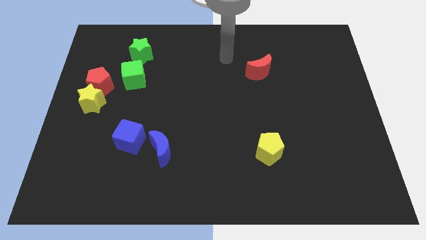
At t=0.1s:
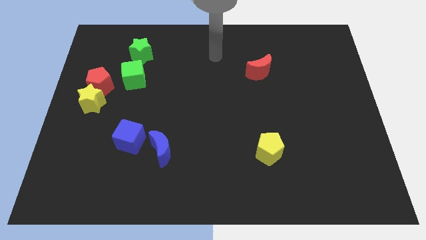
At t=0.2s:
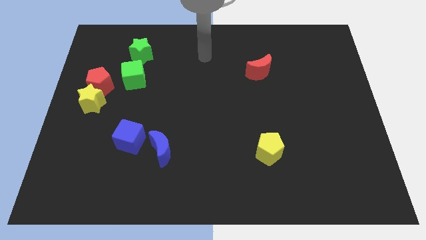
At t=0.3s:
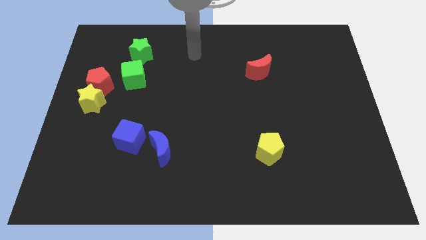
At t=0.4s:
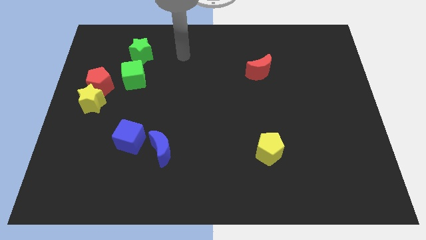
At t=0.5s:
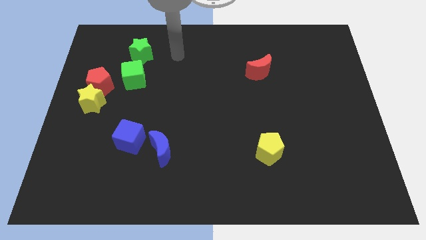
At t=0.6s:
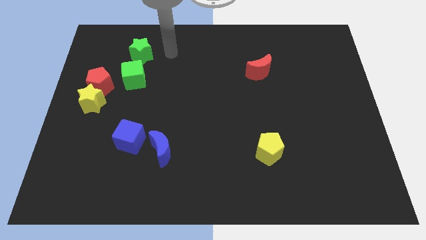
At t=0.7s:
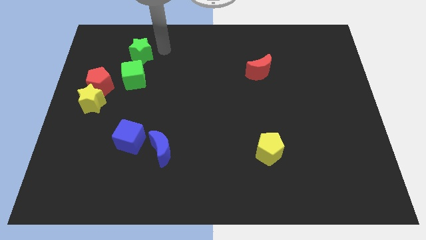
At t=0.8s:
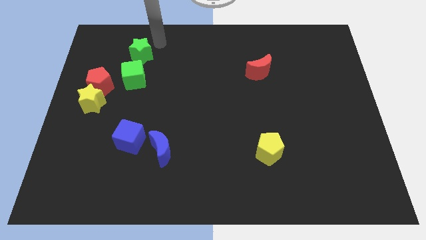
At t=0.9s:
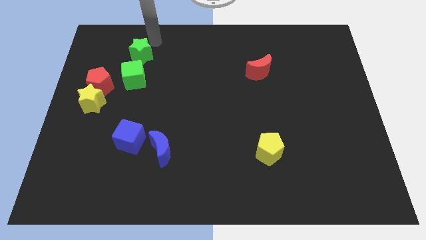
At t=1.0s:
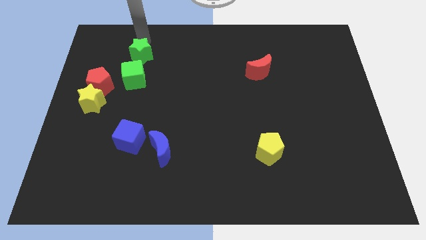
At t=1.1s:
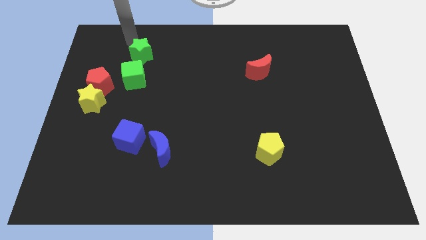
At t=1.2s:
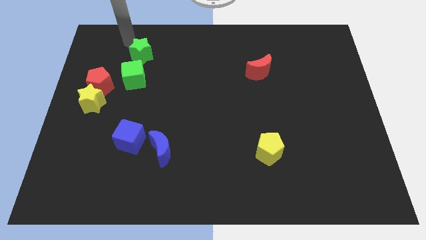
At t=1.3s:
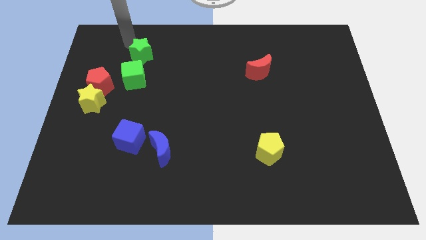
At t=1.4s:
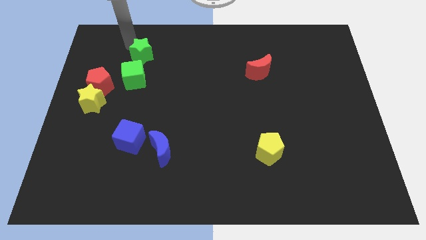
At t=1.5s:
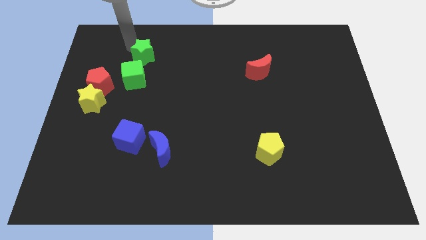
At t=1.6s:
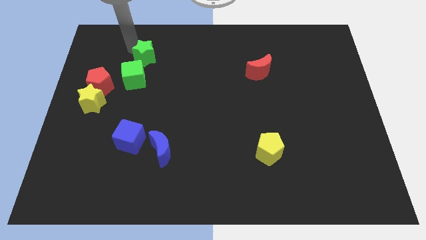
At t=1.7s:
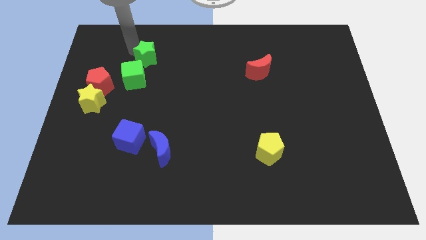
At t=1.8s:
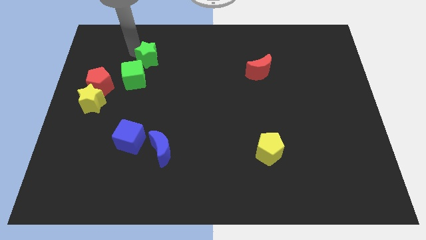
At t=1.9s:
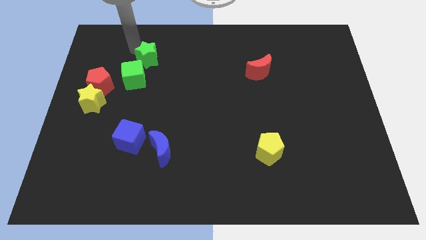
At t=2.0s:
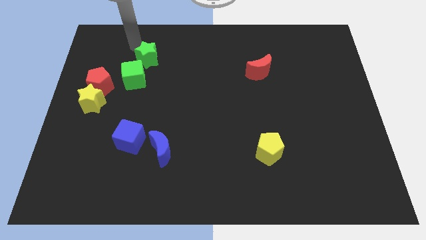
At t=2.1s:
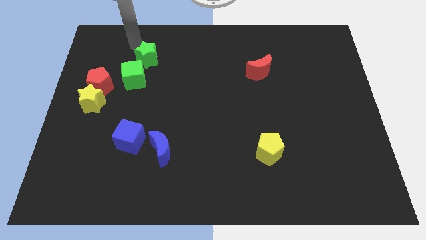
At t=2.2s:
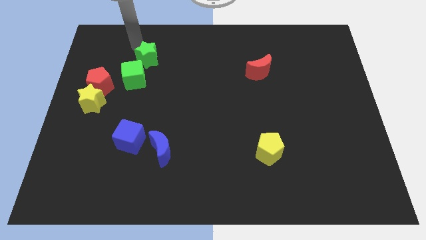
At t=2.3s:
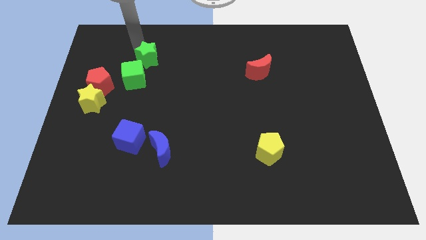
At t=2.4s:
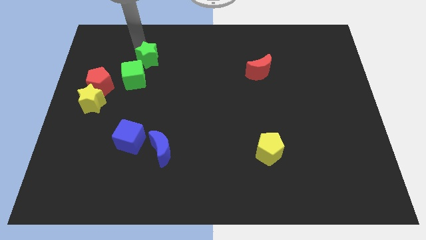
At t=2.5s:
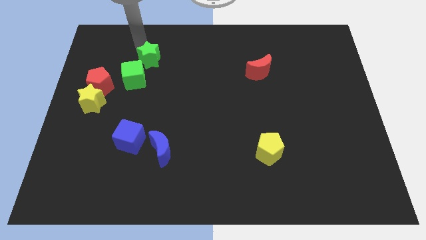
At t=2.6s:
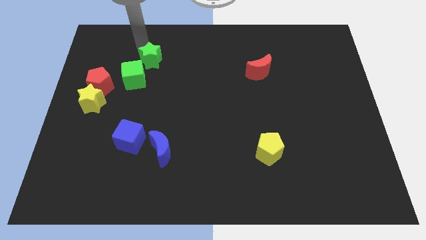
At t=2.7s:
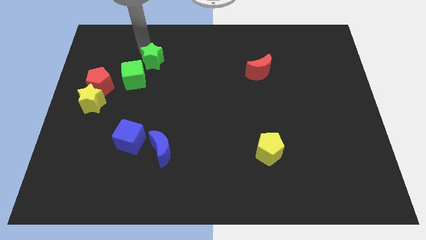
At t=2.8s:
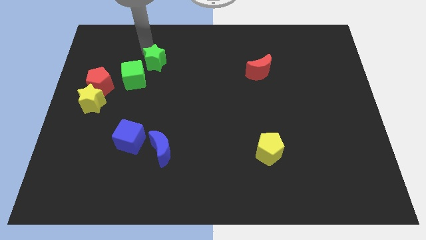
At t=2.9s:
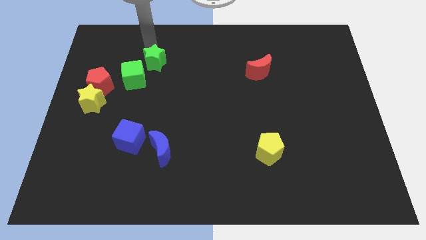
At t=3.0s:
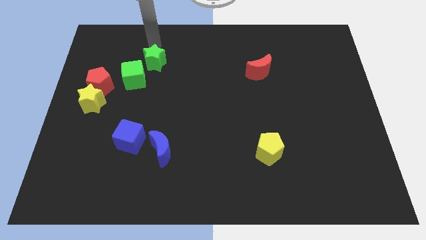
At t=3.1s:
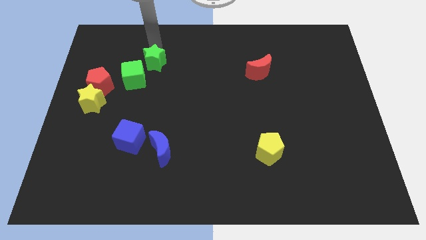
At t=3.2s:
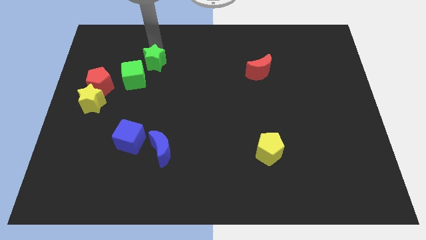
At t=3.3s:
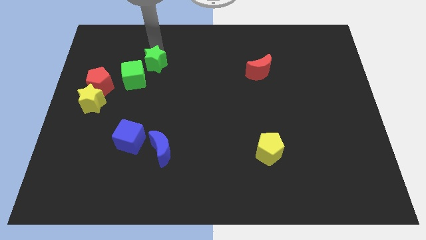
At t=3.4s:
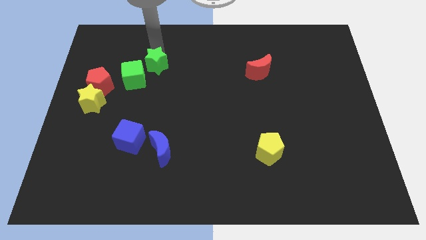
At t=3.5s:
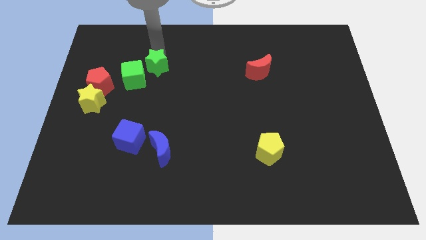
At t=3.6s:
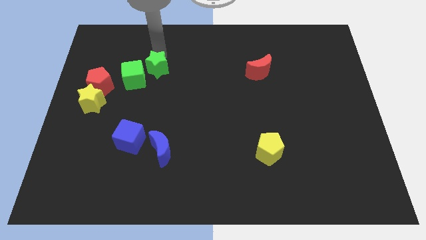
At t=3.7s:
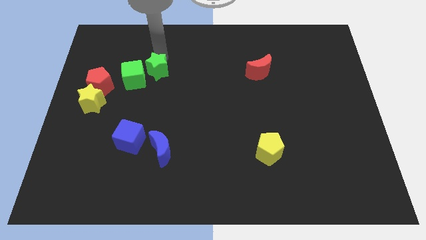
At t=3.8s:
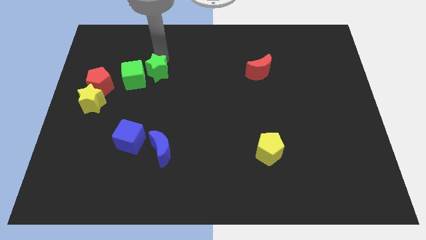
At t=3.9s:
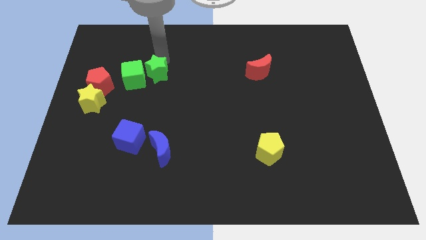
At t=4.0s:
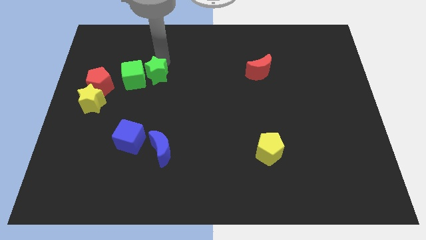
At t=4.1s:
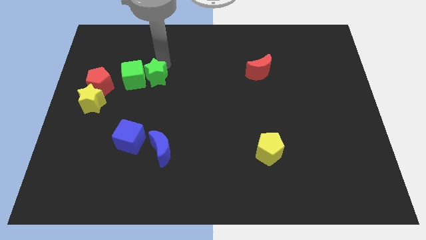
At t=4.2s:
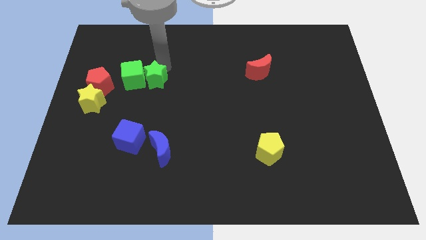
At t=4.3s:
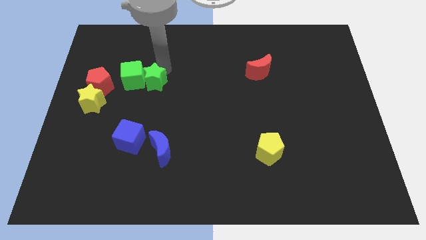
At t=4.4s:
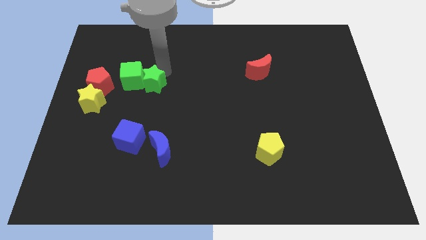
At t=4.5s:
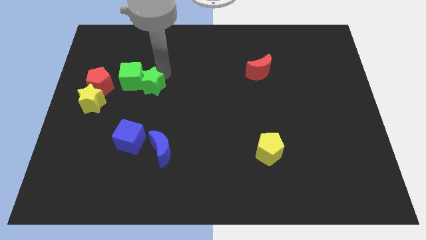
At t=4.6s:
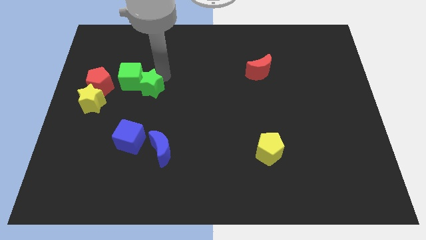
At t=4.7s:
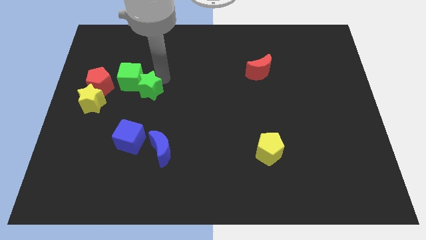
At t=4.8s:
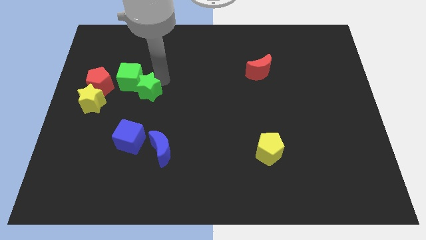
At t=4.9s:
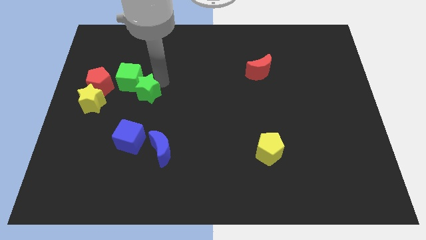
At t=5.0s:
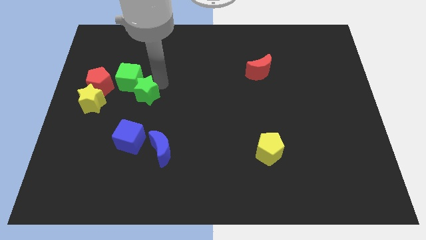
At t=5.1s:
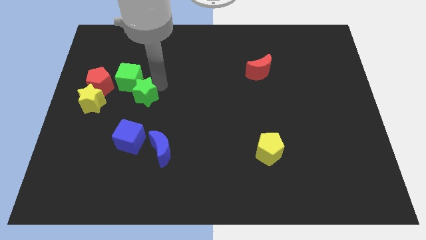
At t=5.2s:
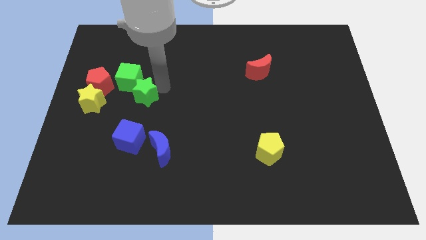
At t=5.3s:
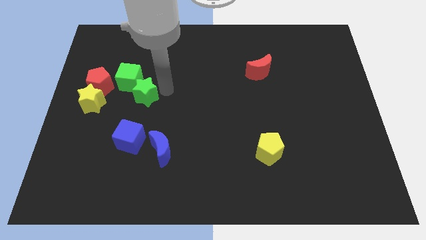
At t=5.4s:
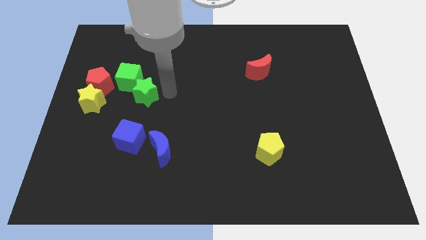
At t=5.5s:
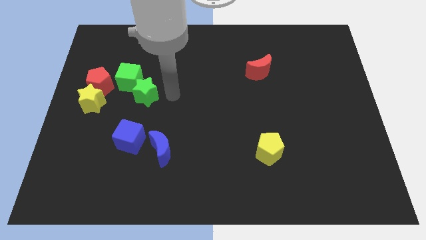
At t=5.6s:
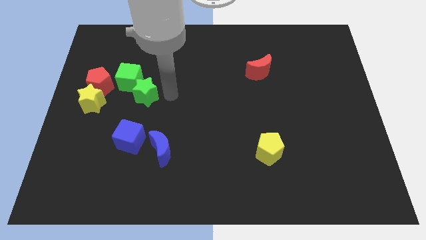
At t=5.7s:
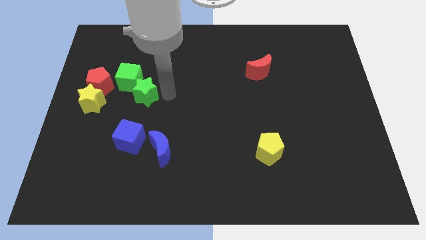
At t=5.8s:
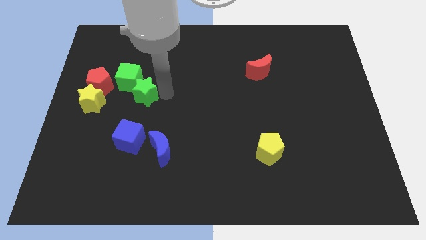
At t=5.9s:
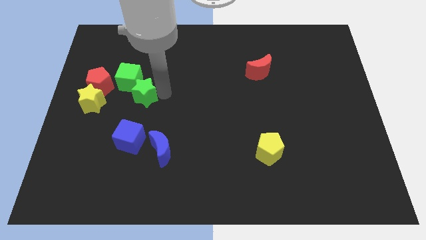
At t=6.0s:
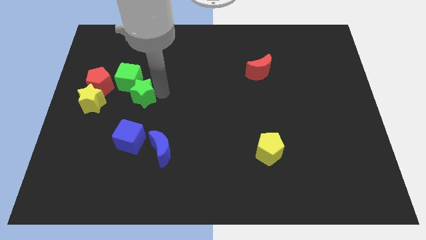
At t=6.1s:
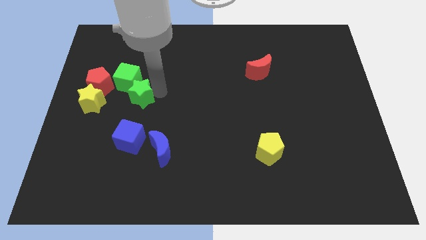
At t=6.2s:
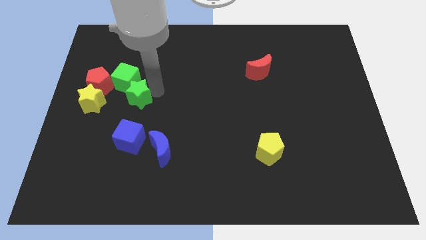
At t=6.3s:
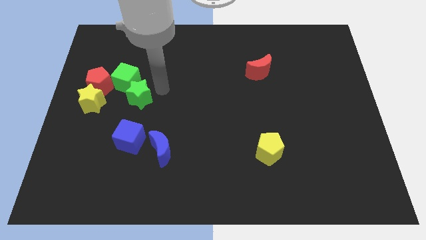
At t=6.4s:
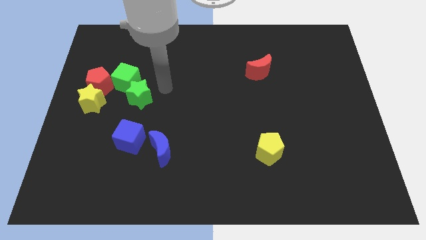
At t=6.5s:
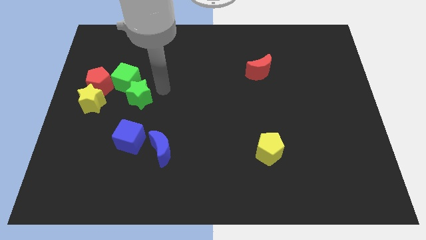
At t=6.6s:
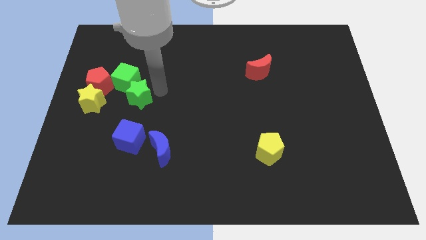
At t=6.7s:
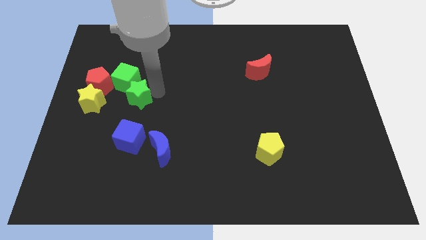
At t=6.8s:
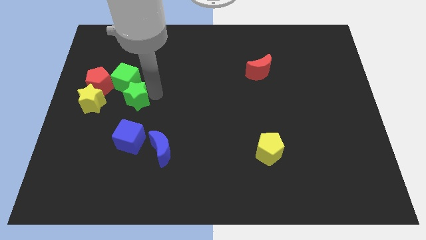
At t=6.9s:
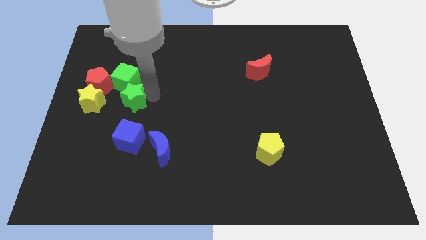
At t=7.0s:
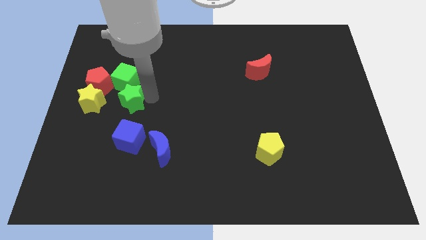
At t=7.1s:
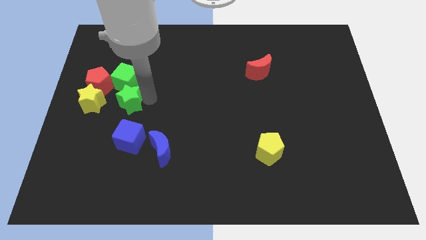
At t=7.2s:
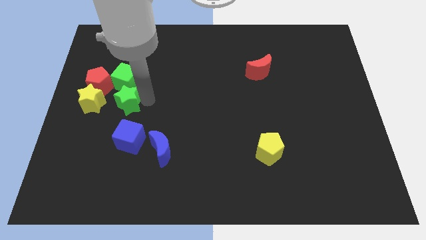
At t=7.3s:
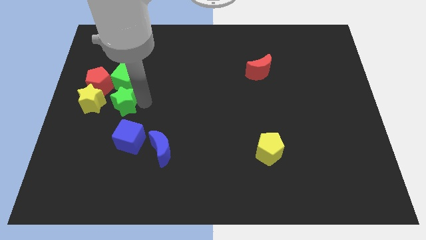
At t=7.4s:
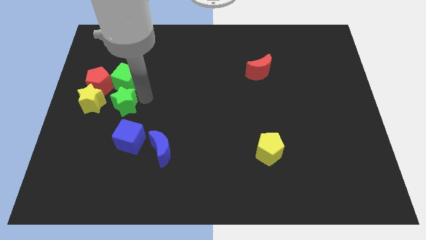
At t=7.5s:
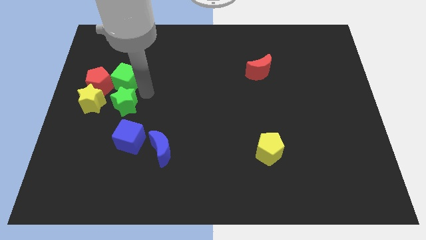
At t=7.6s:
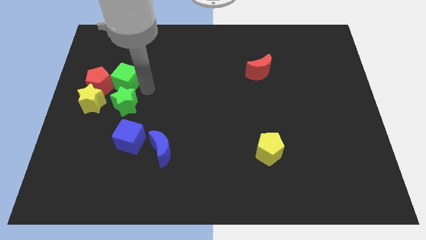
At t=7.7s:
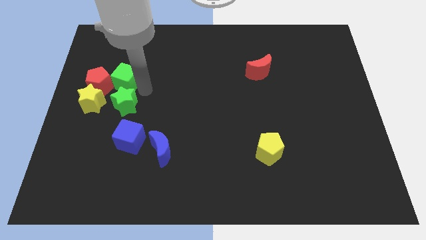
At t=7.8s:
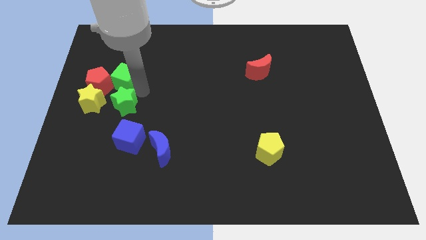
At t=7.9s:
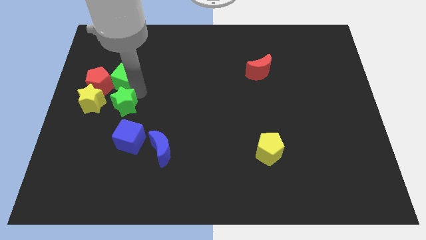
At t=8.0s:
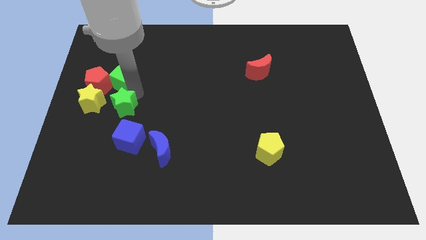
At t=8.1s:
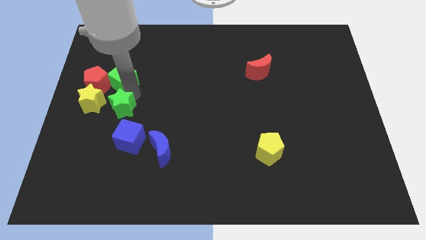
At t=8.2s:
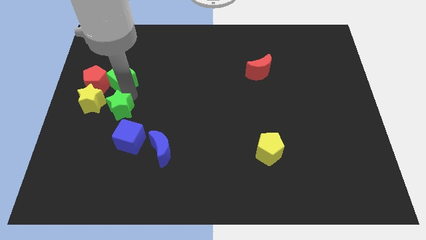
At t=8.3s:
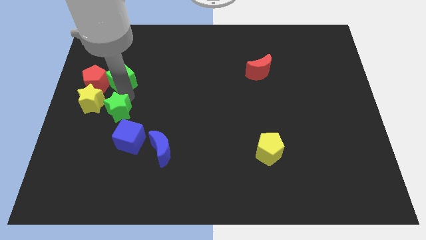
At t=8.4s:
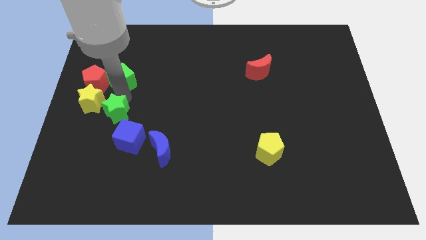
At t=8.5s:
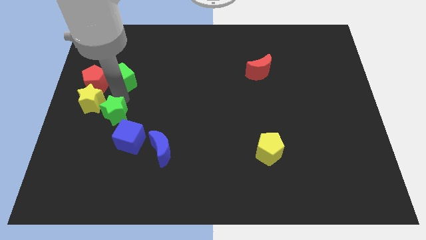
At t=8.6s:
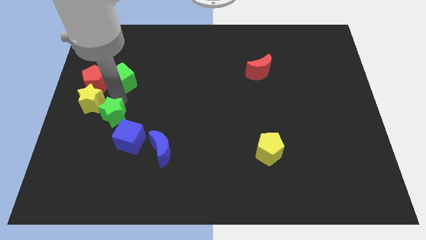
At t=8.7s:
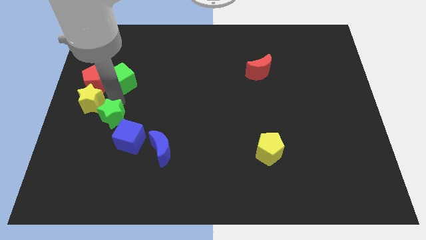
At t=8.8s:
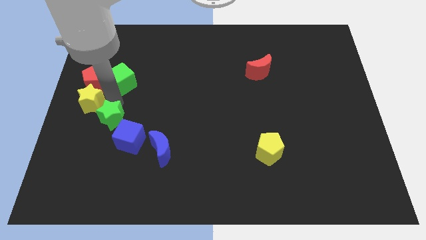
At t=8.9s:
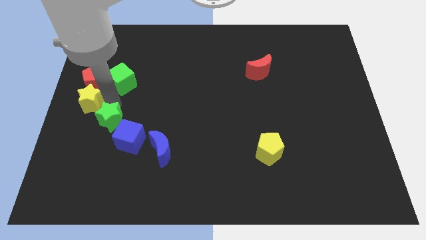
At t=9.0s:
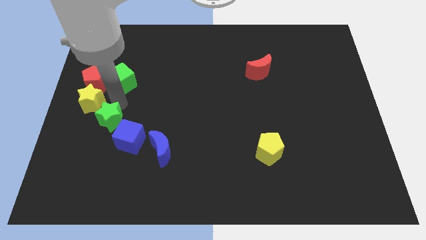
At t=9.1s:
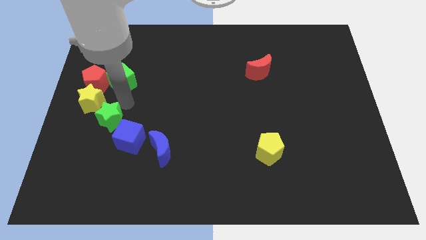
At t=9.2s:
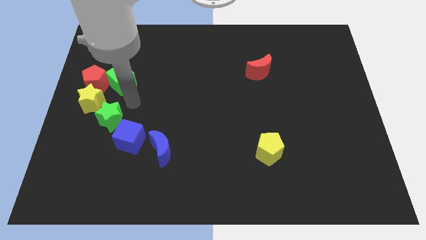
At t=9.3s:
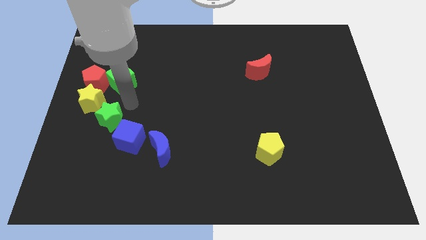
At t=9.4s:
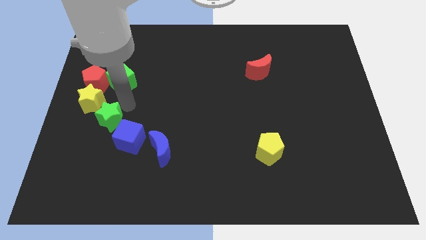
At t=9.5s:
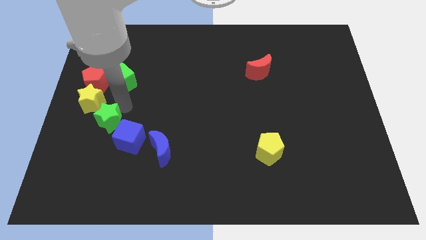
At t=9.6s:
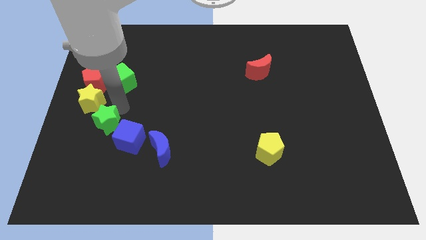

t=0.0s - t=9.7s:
push the green star just left of the blue cube
